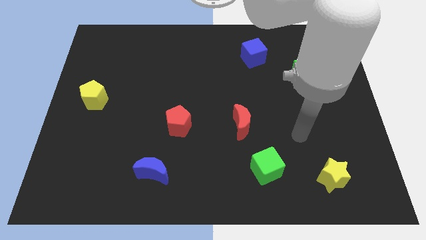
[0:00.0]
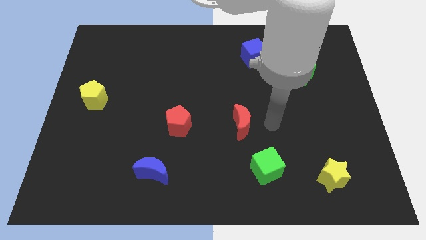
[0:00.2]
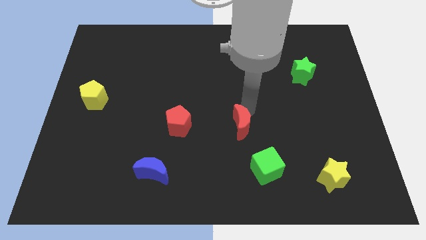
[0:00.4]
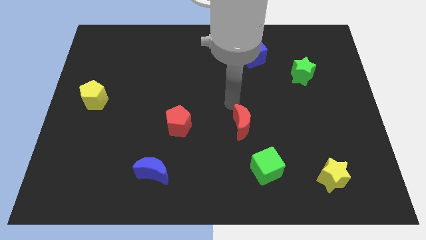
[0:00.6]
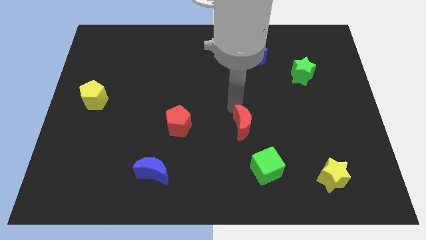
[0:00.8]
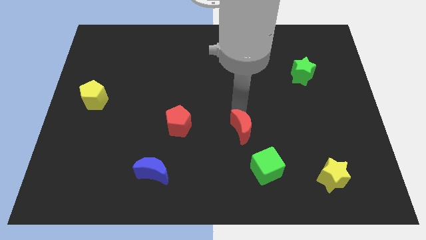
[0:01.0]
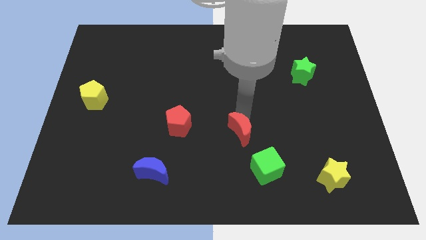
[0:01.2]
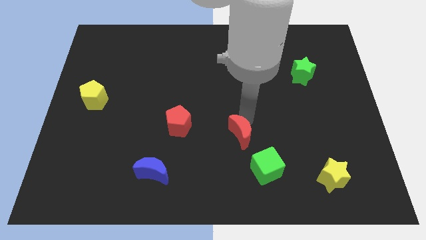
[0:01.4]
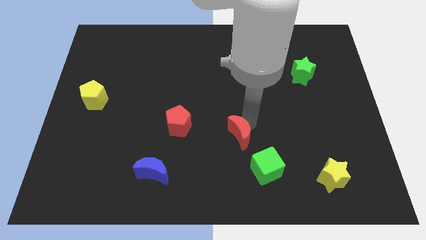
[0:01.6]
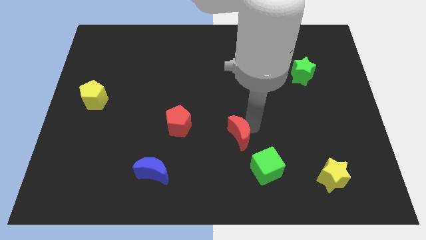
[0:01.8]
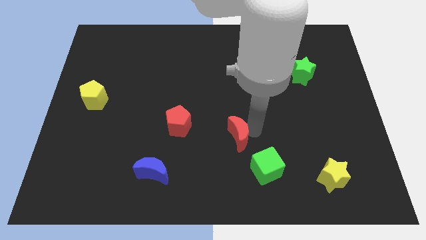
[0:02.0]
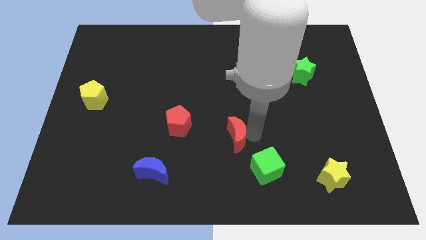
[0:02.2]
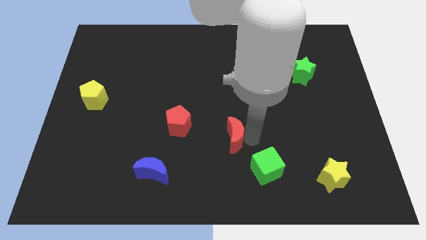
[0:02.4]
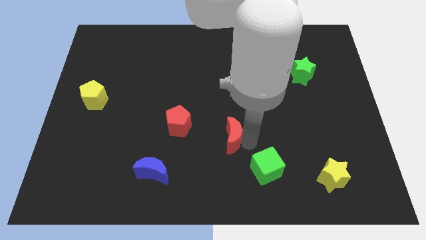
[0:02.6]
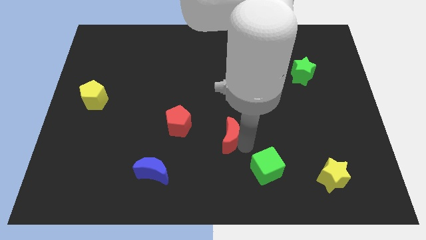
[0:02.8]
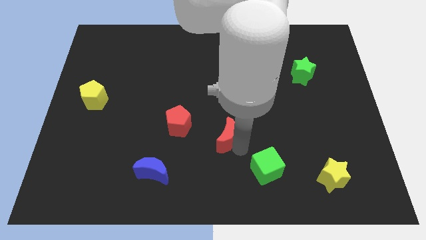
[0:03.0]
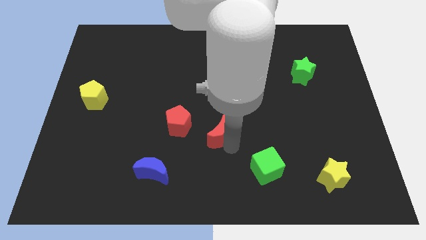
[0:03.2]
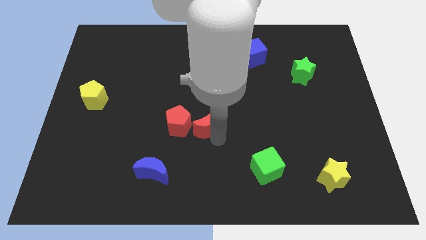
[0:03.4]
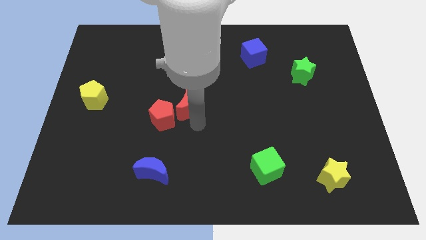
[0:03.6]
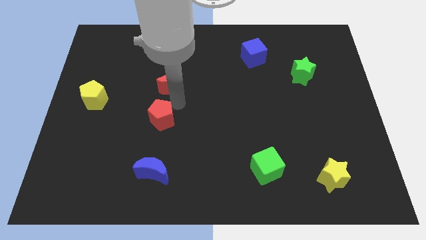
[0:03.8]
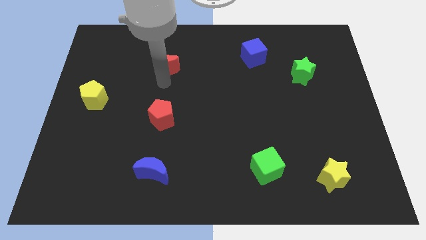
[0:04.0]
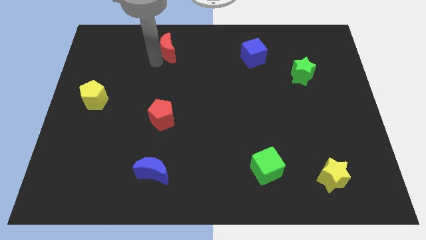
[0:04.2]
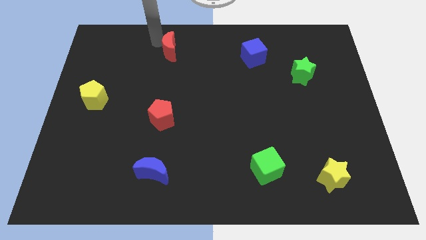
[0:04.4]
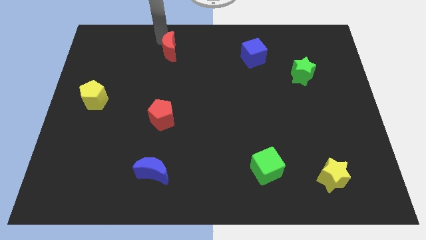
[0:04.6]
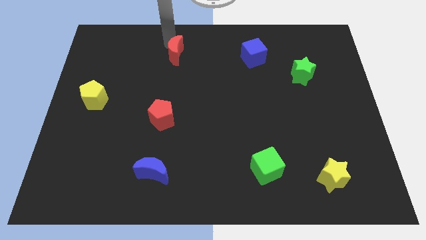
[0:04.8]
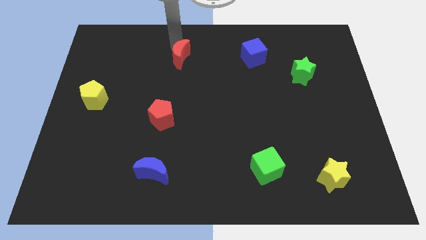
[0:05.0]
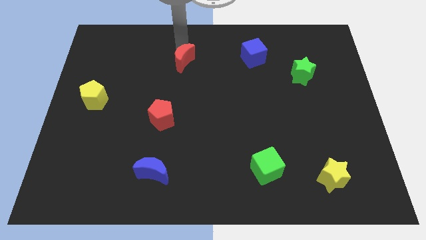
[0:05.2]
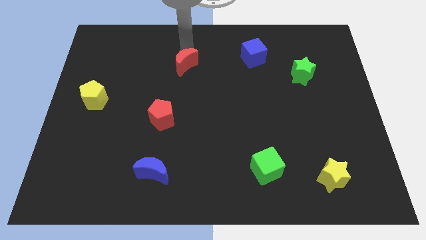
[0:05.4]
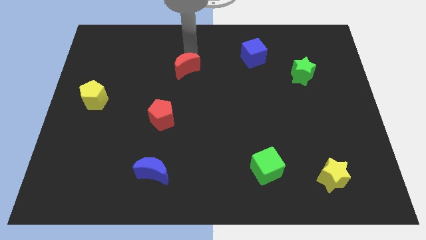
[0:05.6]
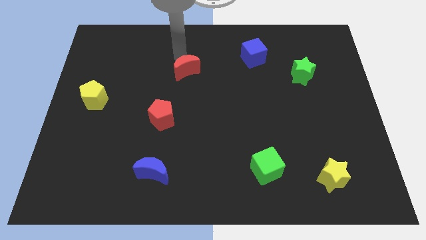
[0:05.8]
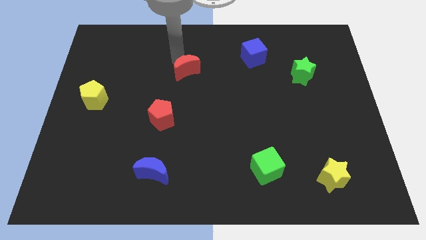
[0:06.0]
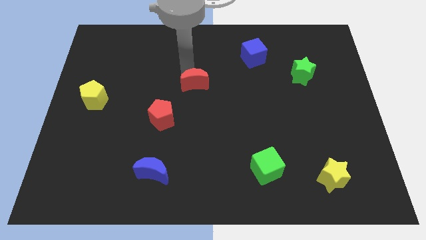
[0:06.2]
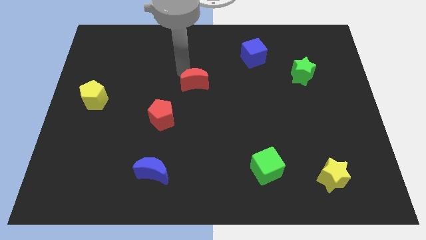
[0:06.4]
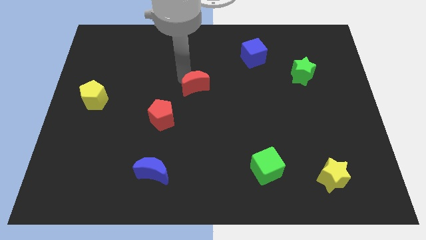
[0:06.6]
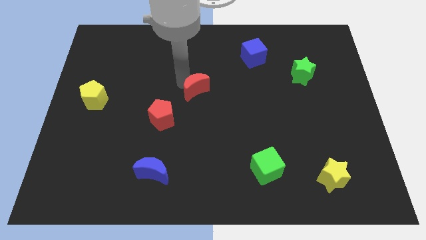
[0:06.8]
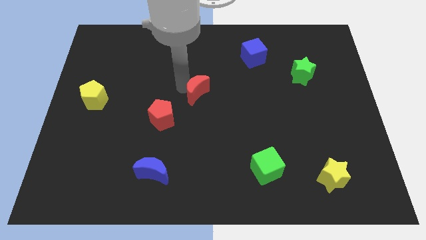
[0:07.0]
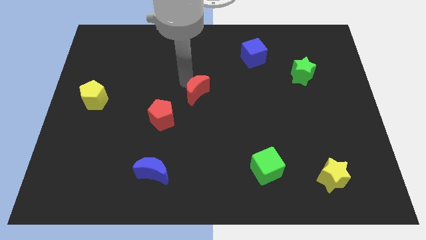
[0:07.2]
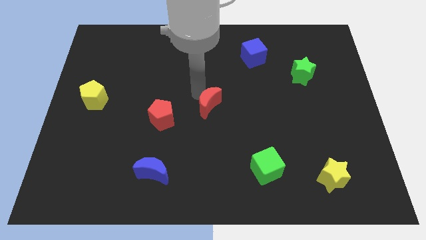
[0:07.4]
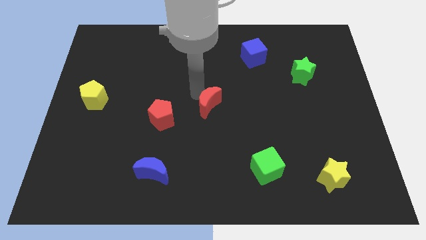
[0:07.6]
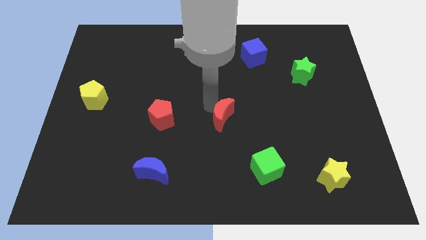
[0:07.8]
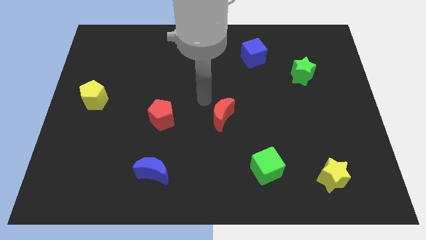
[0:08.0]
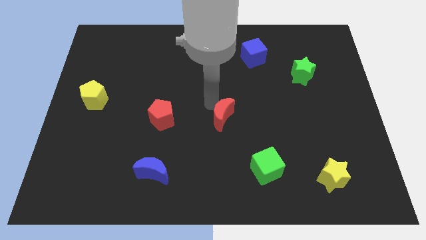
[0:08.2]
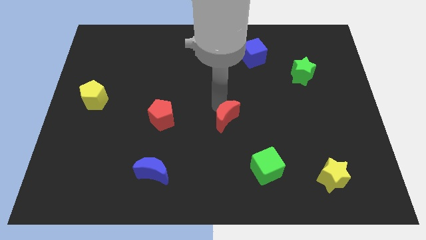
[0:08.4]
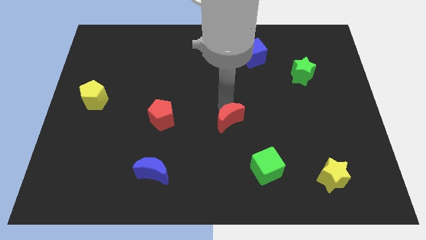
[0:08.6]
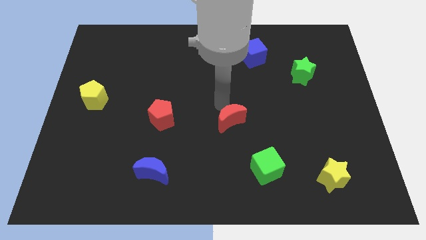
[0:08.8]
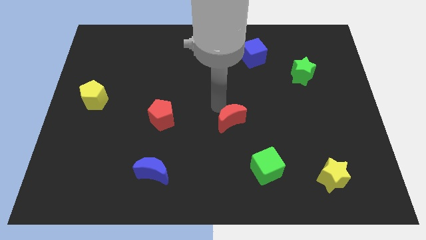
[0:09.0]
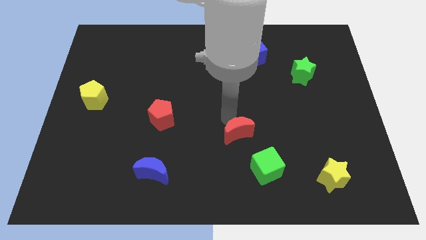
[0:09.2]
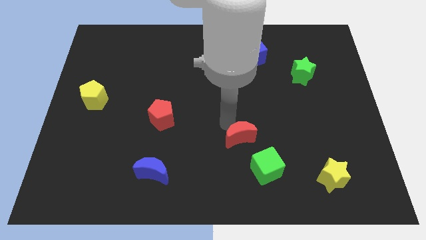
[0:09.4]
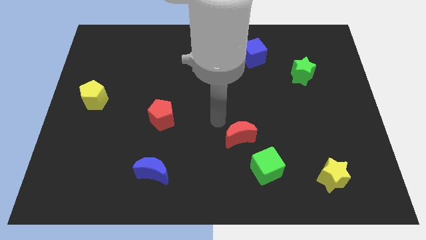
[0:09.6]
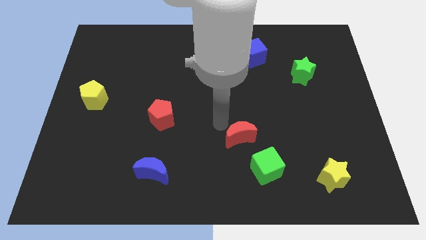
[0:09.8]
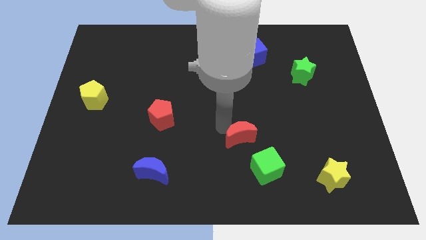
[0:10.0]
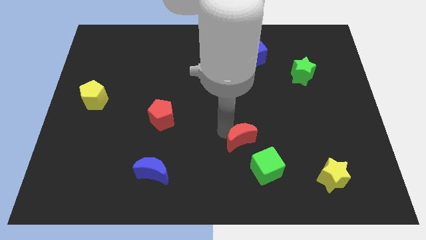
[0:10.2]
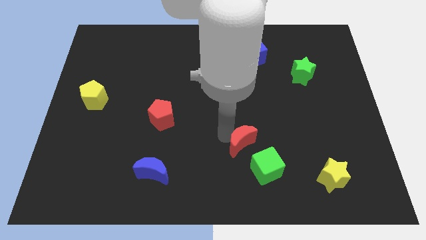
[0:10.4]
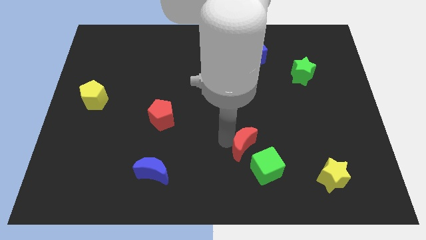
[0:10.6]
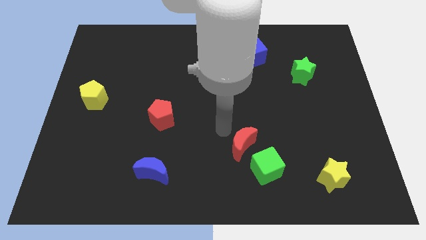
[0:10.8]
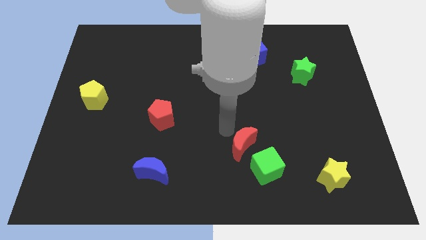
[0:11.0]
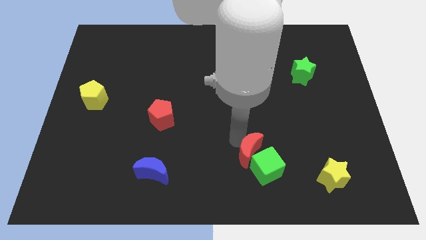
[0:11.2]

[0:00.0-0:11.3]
slide the red moon close to the green cube

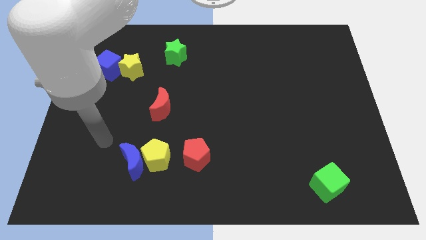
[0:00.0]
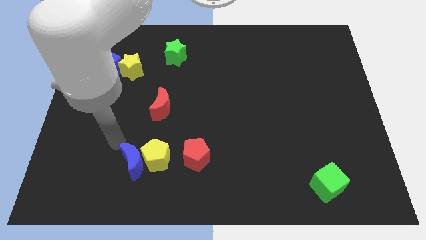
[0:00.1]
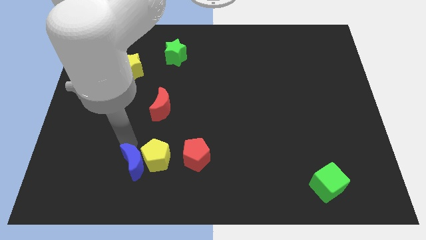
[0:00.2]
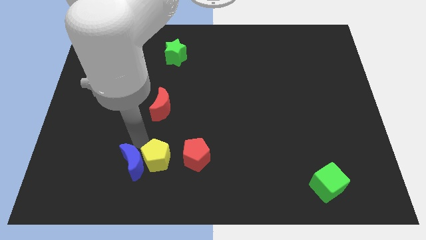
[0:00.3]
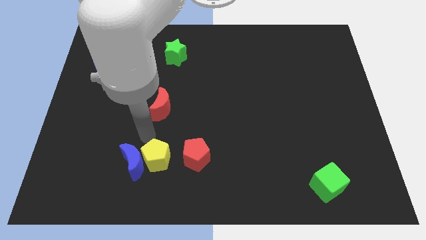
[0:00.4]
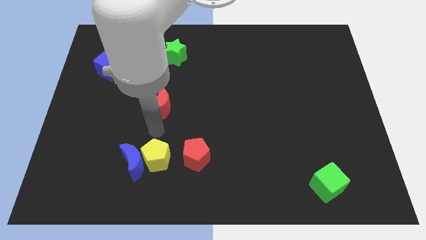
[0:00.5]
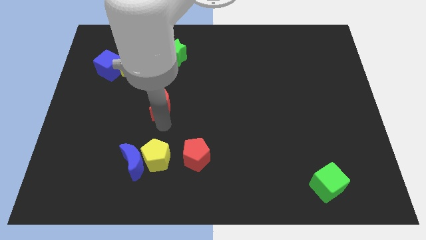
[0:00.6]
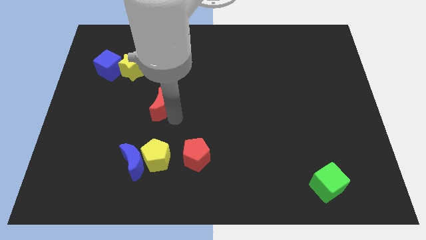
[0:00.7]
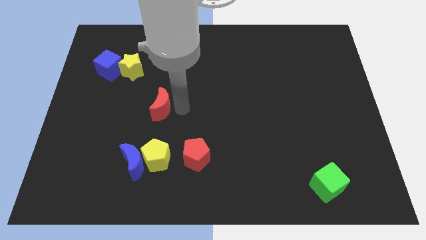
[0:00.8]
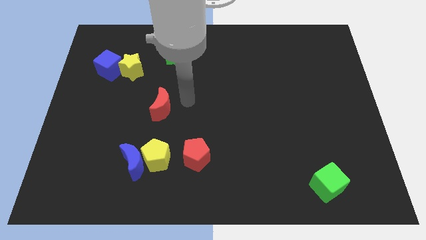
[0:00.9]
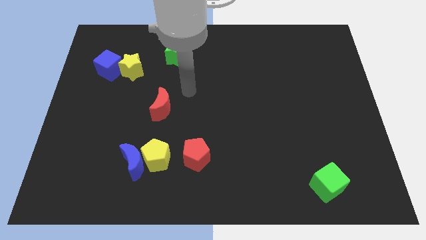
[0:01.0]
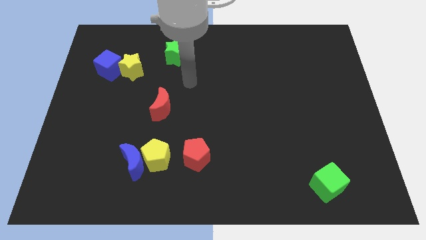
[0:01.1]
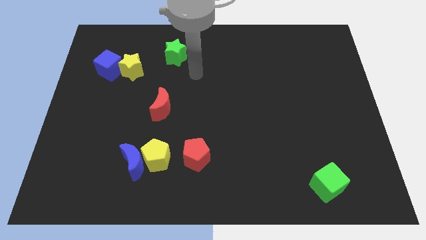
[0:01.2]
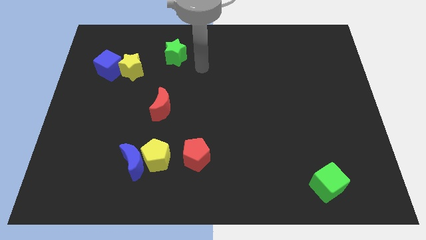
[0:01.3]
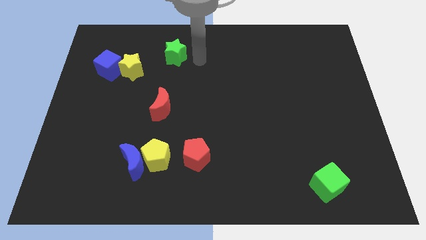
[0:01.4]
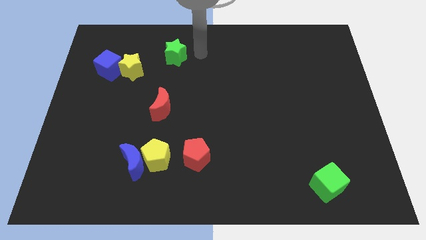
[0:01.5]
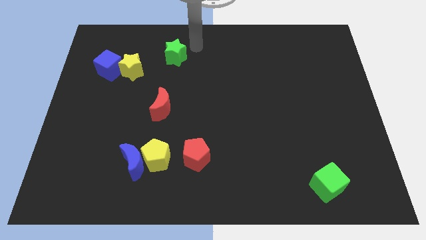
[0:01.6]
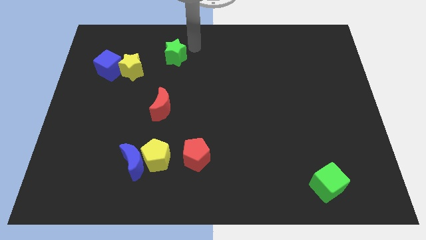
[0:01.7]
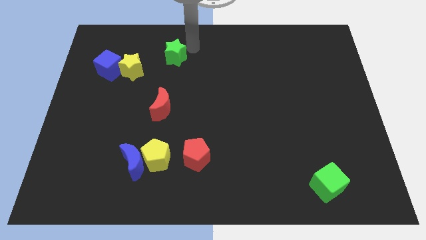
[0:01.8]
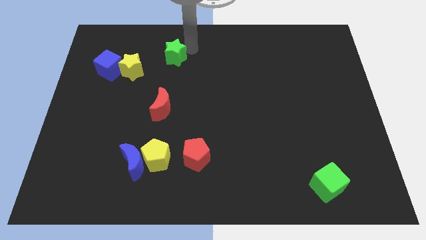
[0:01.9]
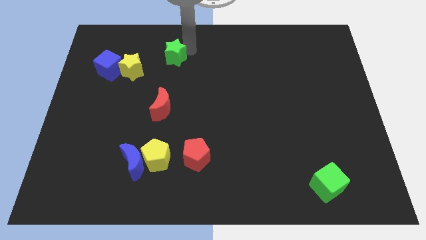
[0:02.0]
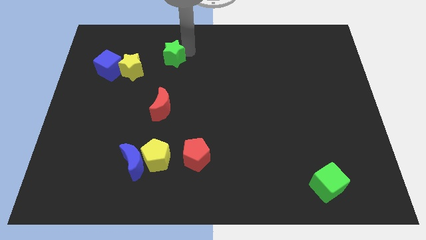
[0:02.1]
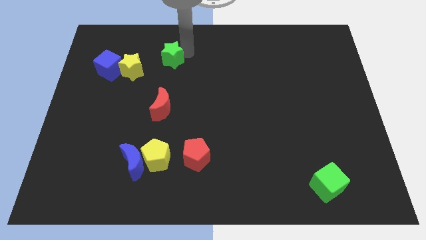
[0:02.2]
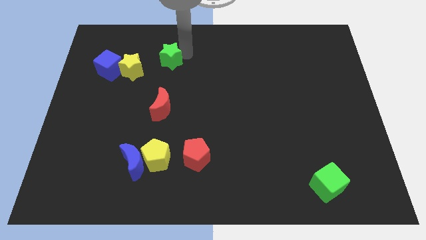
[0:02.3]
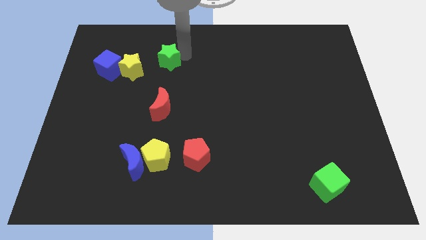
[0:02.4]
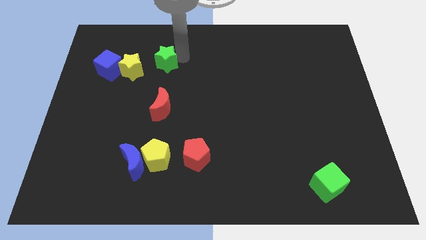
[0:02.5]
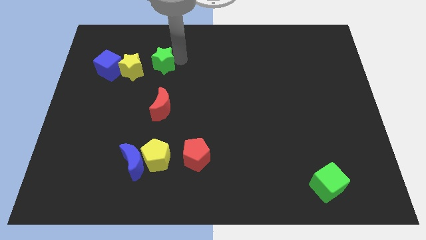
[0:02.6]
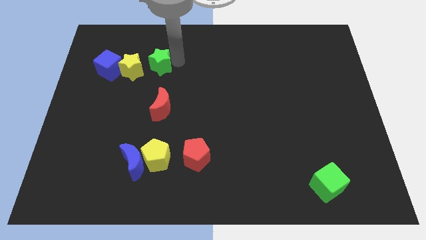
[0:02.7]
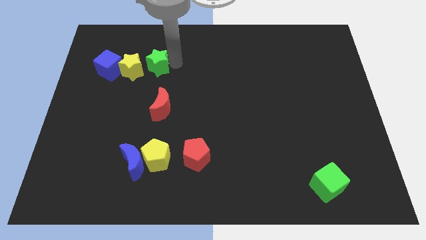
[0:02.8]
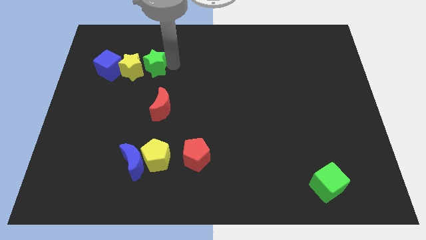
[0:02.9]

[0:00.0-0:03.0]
put the green star to the yellow star
